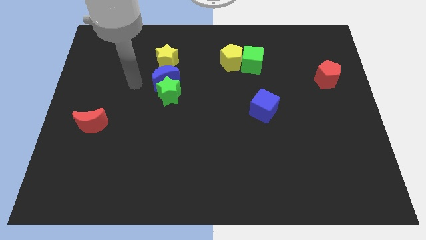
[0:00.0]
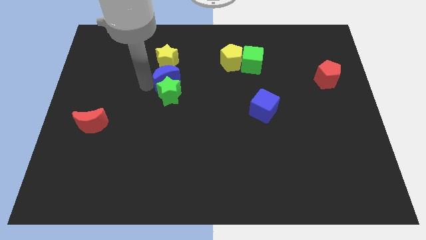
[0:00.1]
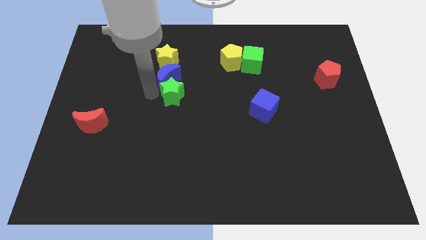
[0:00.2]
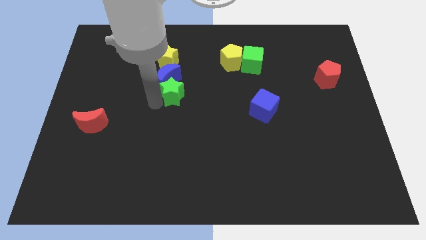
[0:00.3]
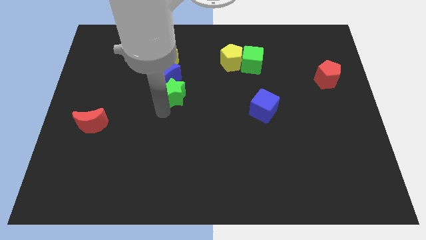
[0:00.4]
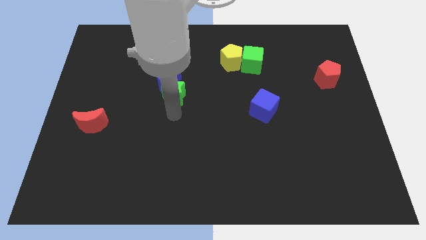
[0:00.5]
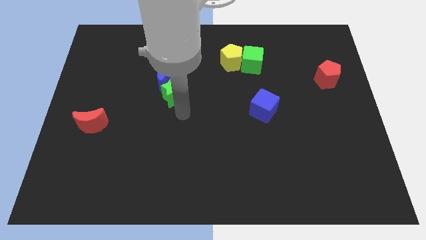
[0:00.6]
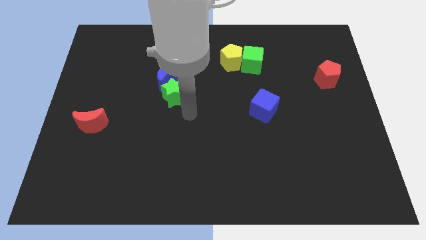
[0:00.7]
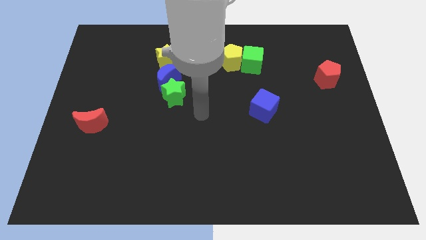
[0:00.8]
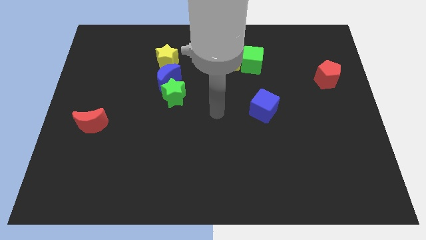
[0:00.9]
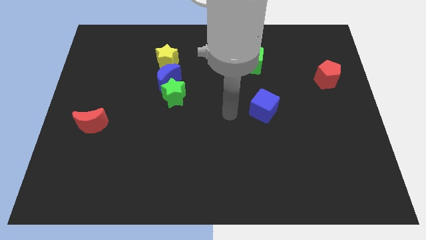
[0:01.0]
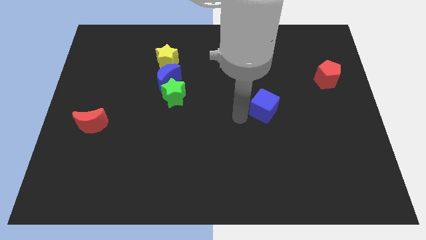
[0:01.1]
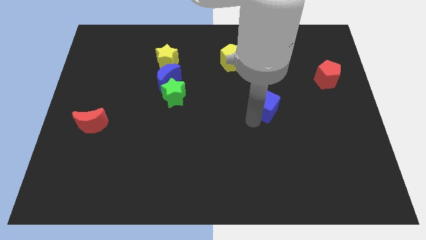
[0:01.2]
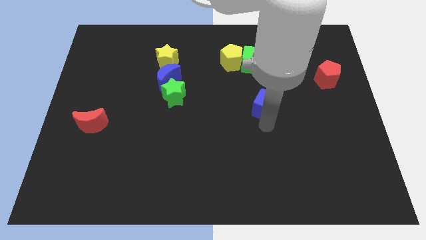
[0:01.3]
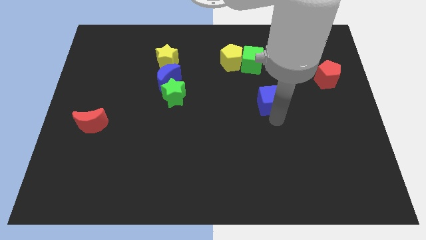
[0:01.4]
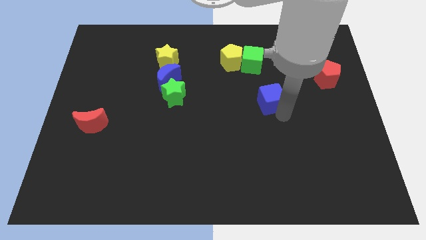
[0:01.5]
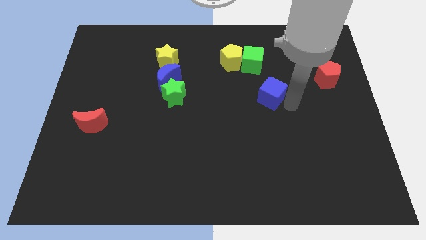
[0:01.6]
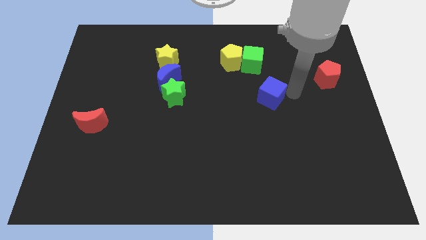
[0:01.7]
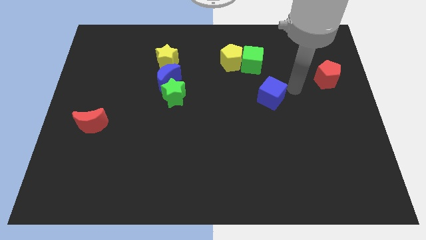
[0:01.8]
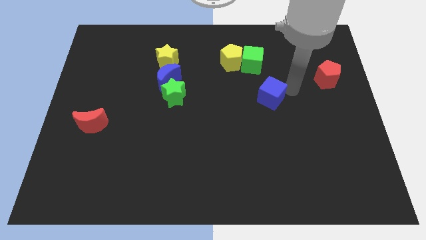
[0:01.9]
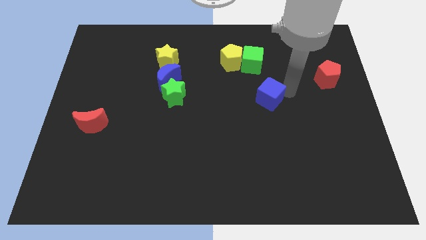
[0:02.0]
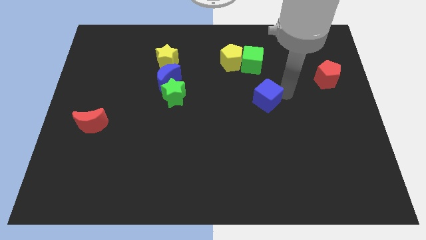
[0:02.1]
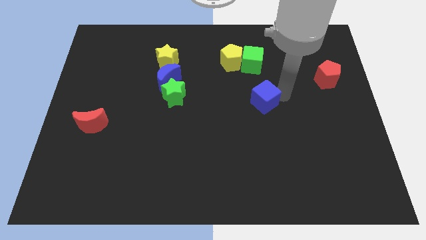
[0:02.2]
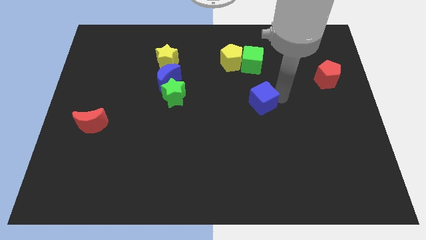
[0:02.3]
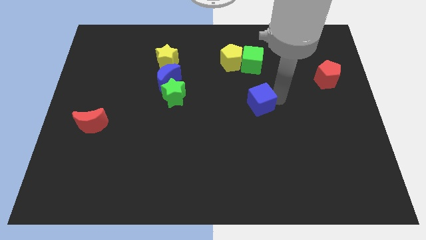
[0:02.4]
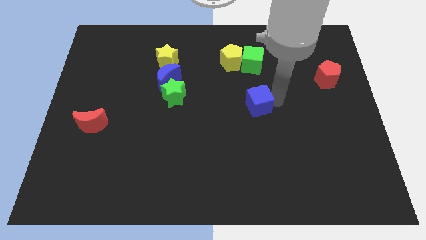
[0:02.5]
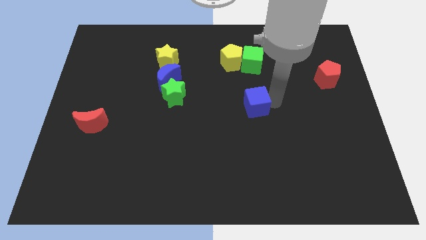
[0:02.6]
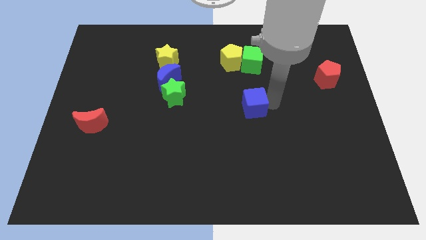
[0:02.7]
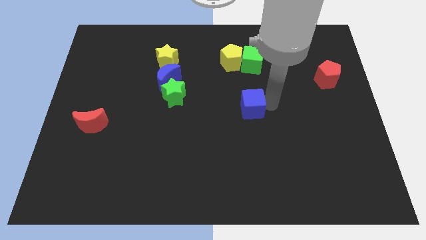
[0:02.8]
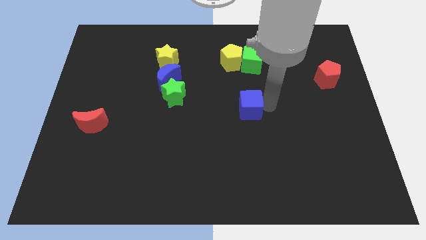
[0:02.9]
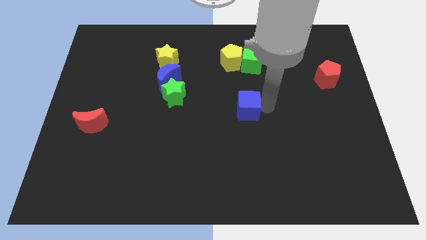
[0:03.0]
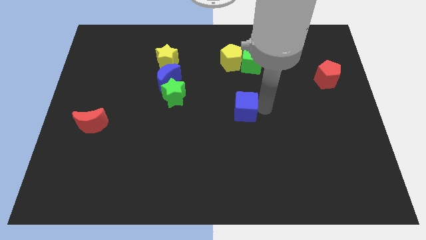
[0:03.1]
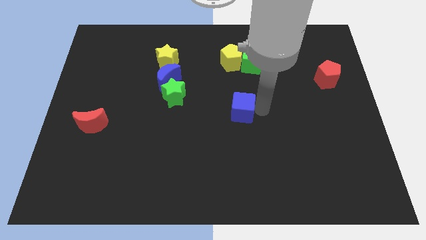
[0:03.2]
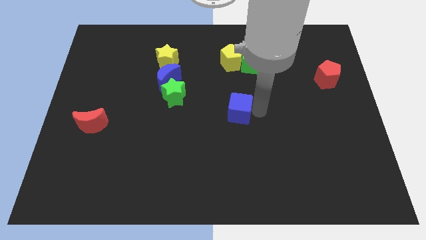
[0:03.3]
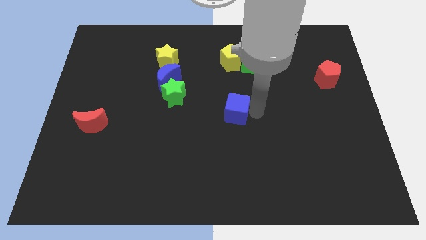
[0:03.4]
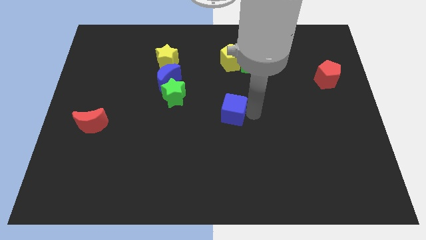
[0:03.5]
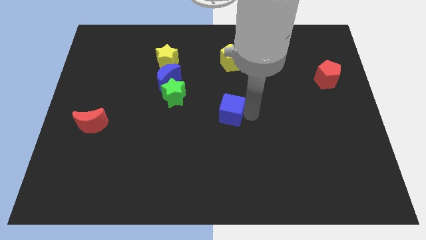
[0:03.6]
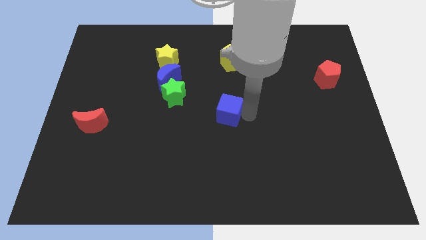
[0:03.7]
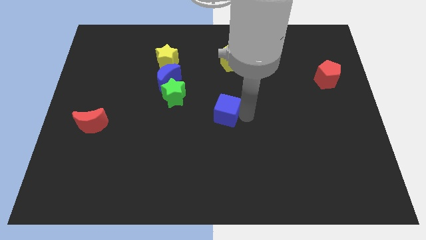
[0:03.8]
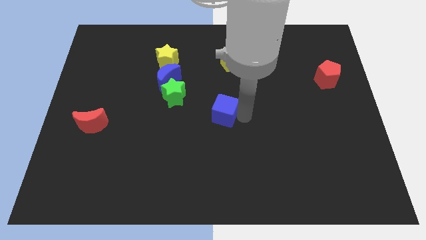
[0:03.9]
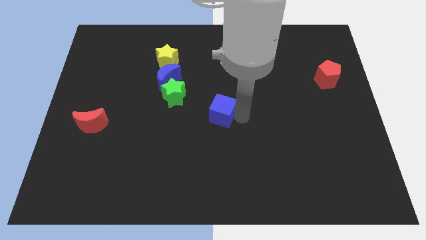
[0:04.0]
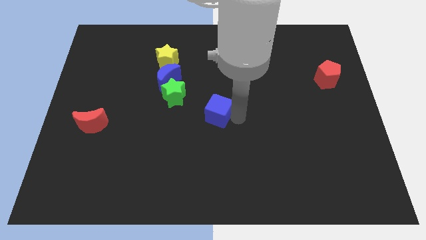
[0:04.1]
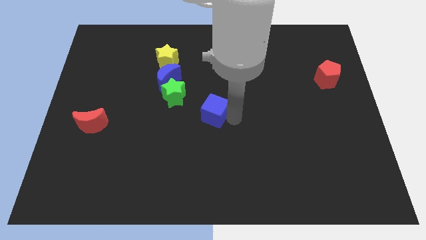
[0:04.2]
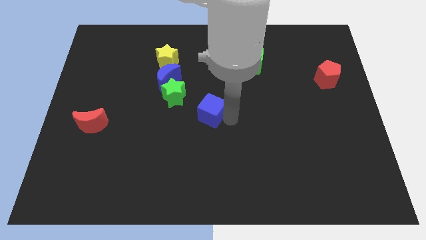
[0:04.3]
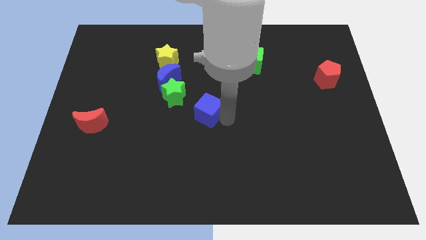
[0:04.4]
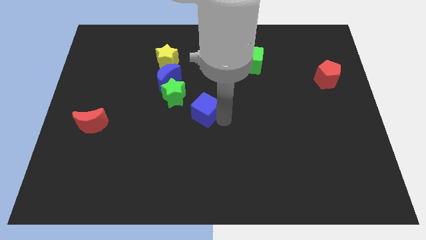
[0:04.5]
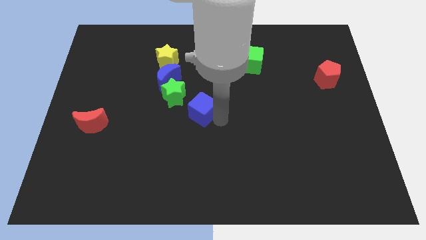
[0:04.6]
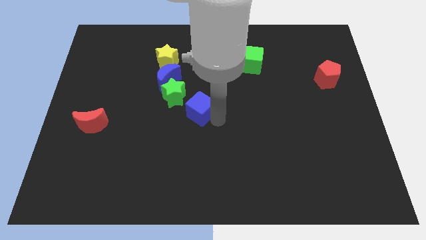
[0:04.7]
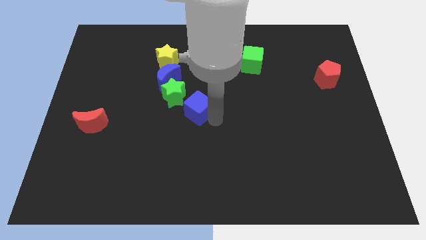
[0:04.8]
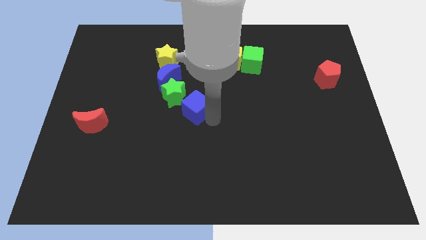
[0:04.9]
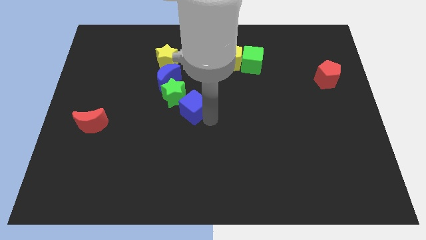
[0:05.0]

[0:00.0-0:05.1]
move the blue cube next to the green star

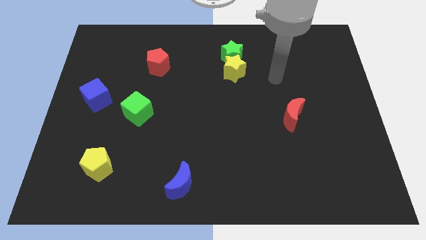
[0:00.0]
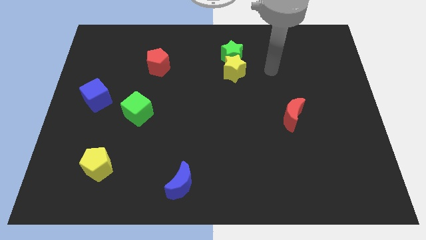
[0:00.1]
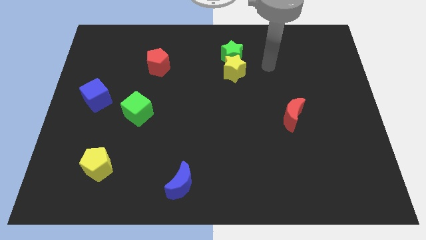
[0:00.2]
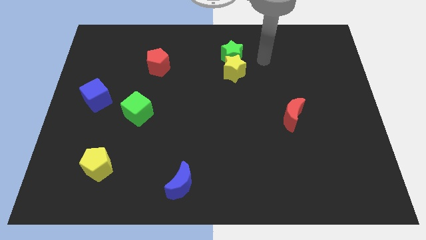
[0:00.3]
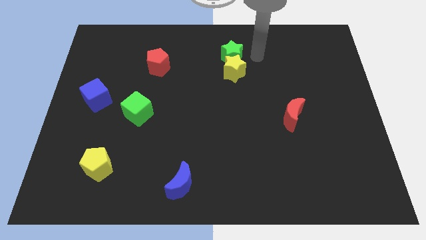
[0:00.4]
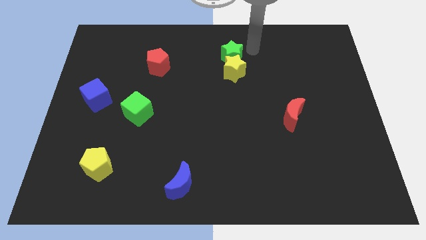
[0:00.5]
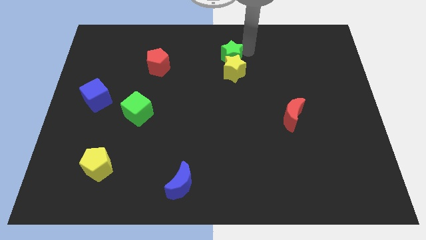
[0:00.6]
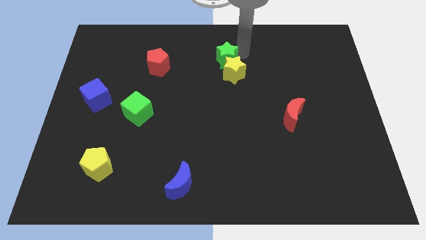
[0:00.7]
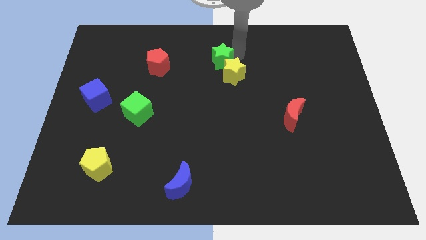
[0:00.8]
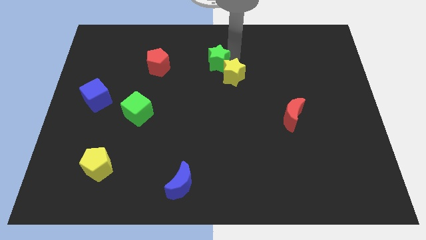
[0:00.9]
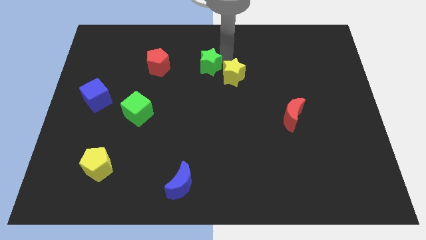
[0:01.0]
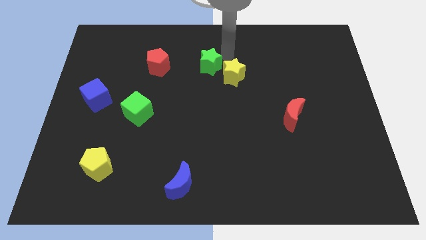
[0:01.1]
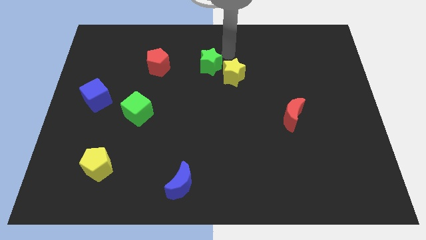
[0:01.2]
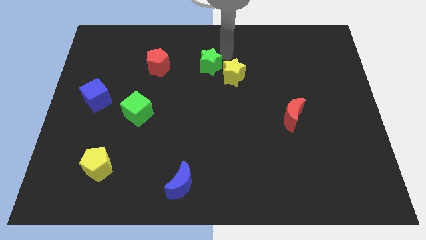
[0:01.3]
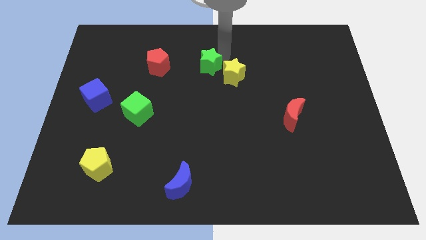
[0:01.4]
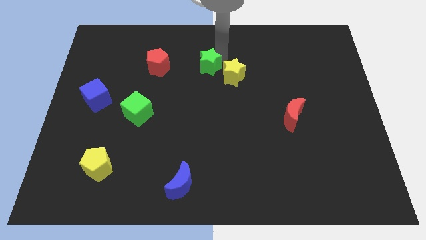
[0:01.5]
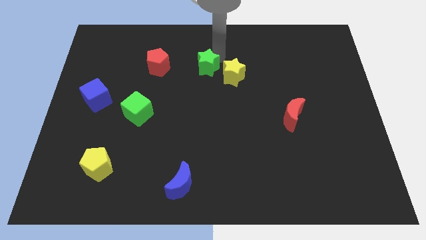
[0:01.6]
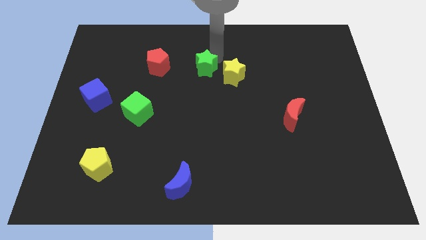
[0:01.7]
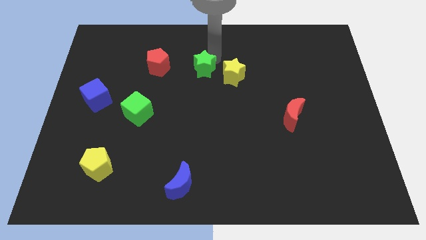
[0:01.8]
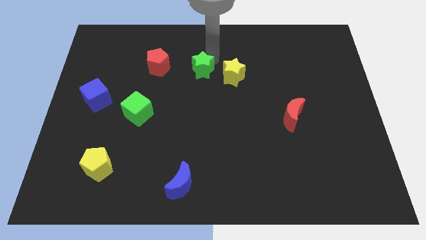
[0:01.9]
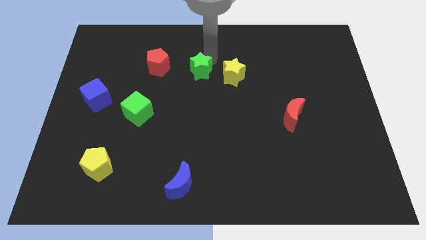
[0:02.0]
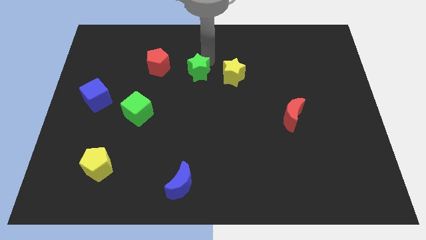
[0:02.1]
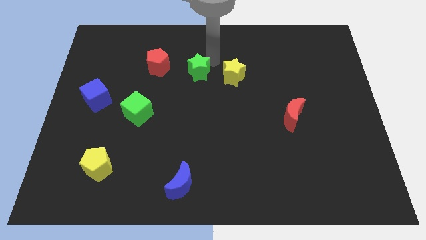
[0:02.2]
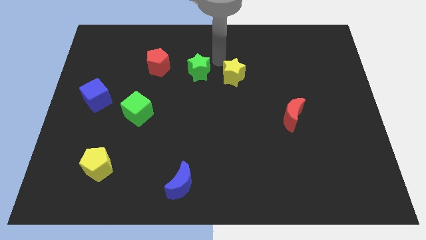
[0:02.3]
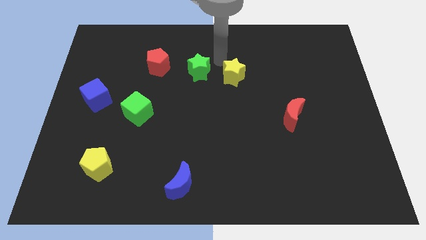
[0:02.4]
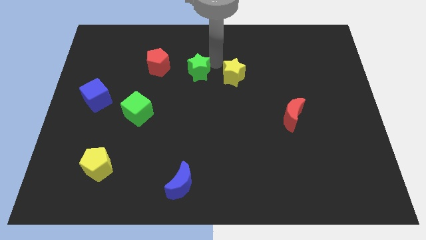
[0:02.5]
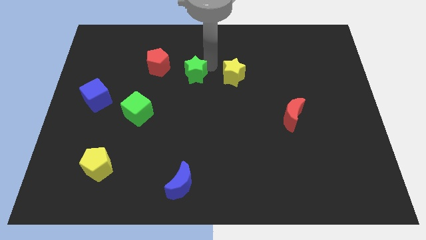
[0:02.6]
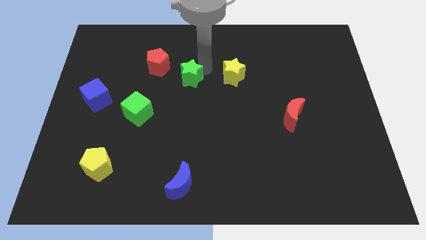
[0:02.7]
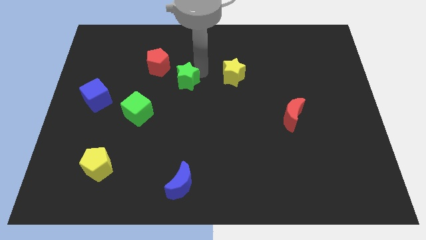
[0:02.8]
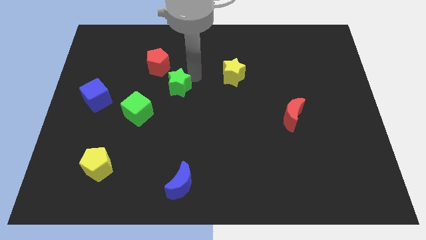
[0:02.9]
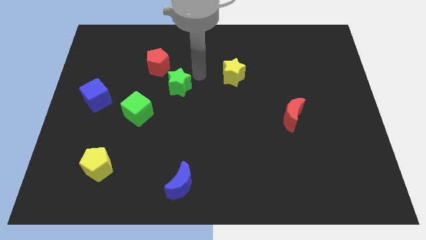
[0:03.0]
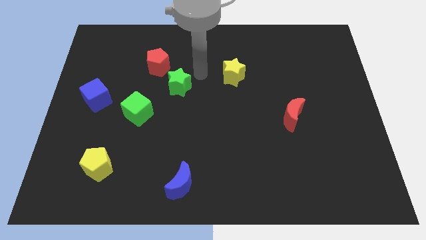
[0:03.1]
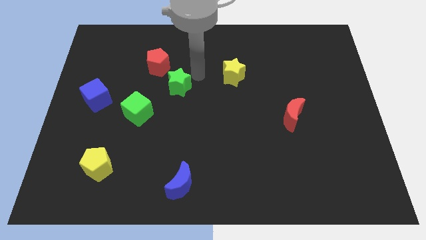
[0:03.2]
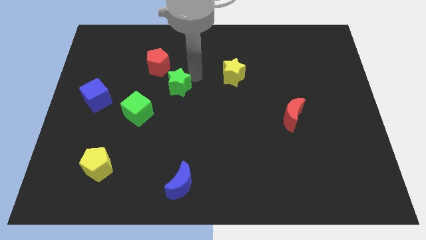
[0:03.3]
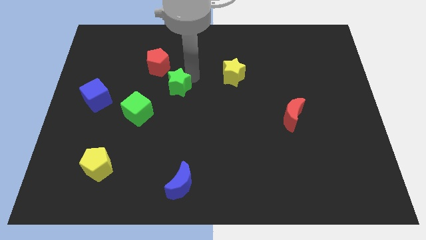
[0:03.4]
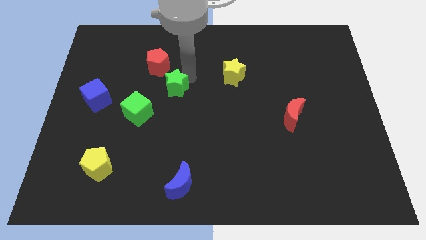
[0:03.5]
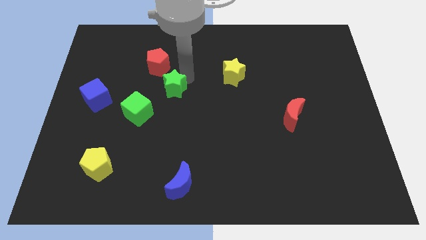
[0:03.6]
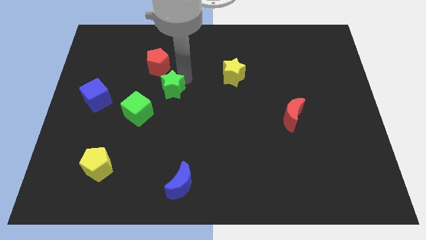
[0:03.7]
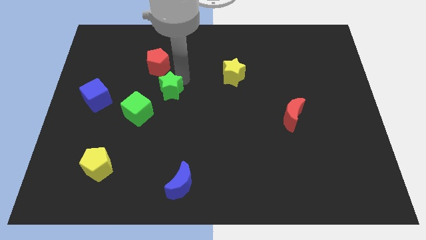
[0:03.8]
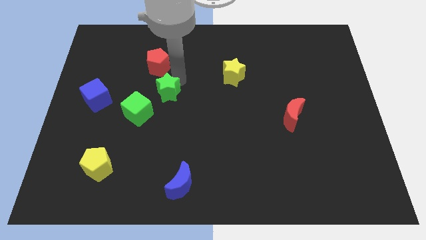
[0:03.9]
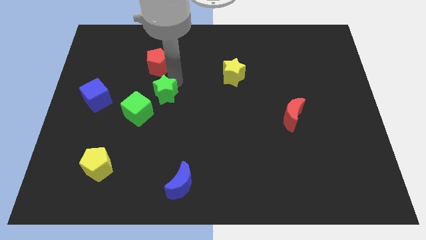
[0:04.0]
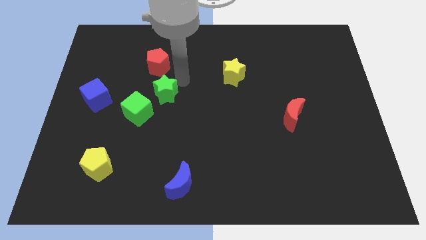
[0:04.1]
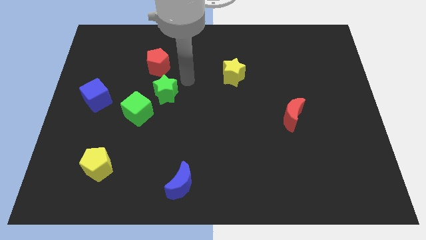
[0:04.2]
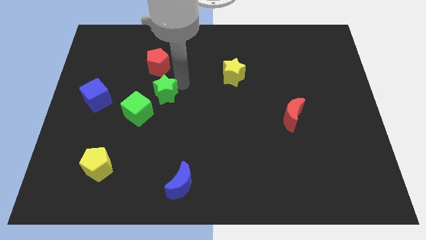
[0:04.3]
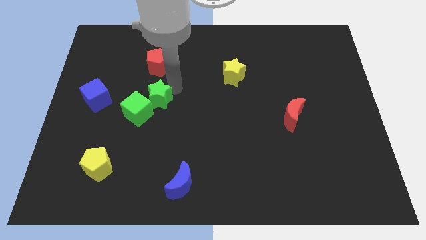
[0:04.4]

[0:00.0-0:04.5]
slide the green star next to the green cube
